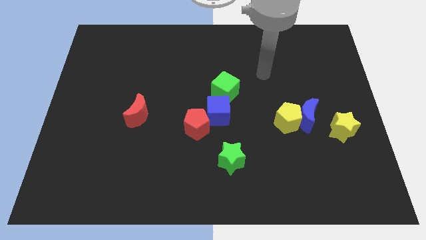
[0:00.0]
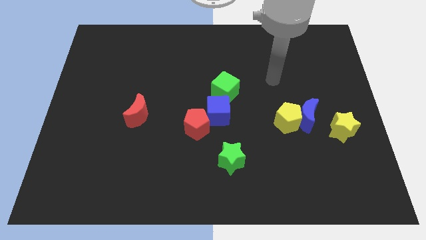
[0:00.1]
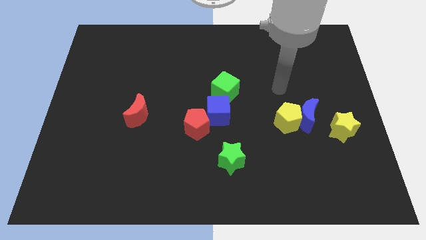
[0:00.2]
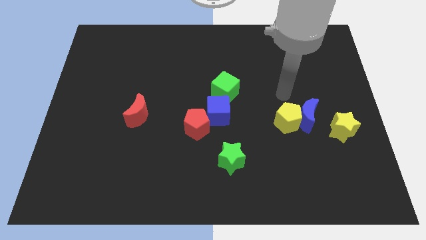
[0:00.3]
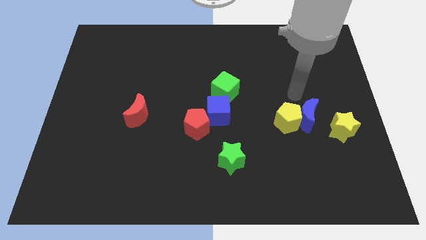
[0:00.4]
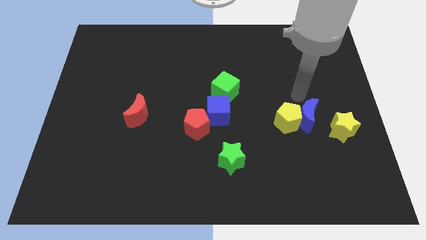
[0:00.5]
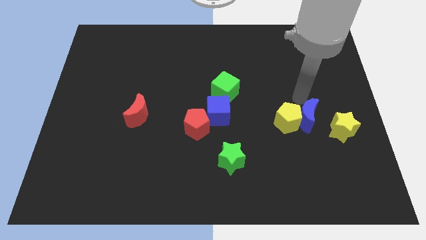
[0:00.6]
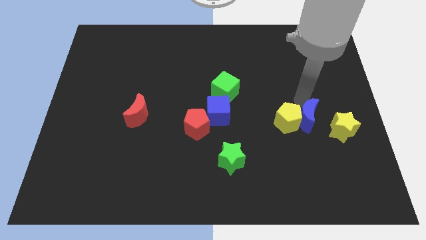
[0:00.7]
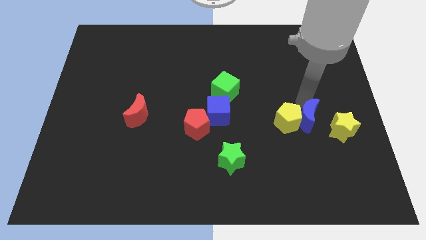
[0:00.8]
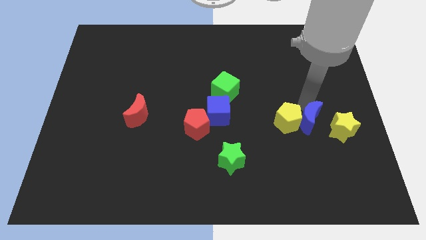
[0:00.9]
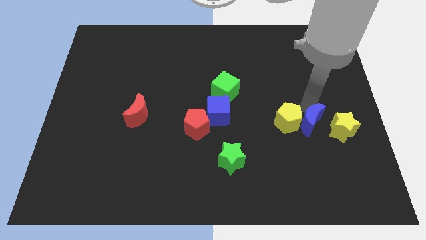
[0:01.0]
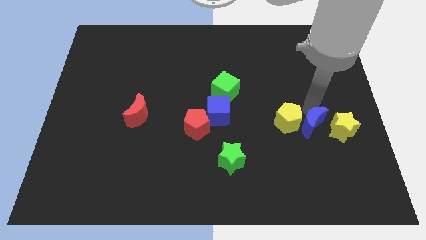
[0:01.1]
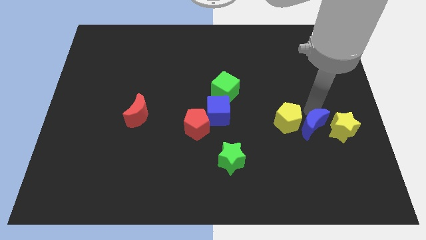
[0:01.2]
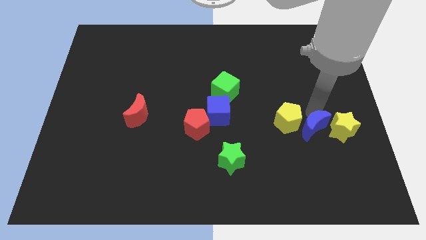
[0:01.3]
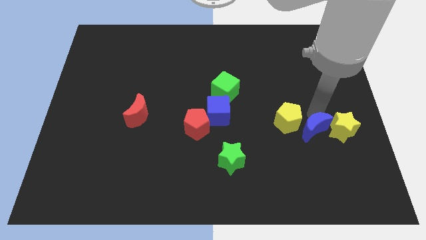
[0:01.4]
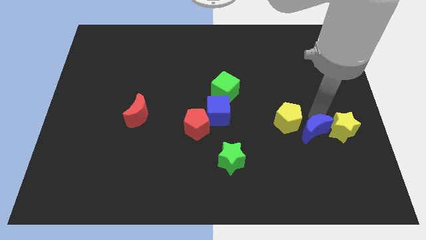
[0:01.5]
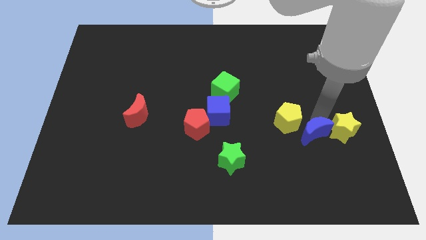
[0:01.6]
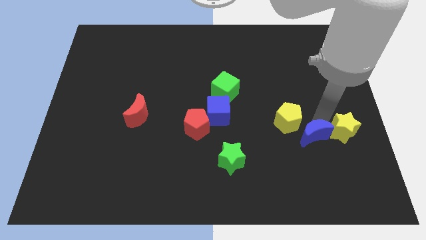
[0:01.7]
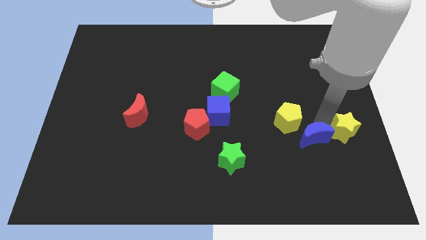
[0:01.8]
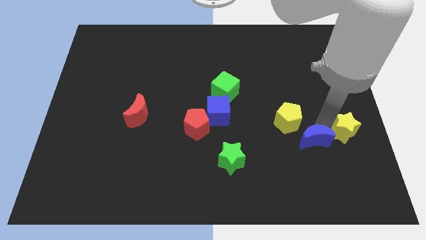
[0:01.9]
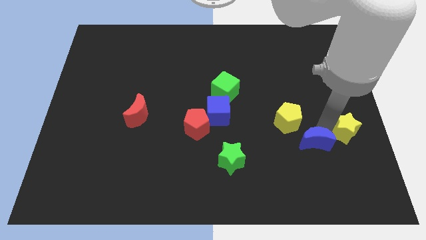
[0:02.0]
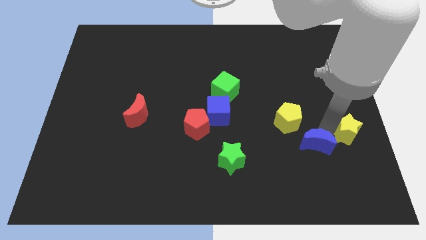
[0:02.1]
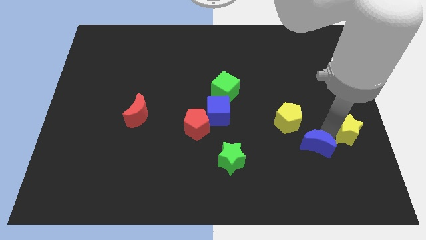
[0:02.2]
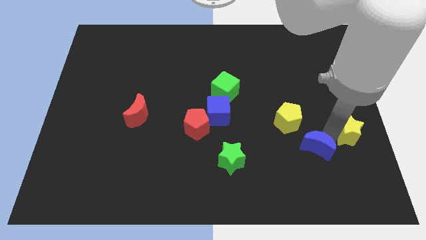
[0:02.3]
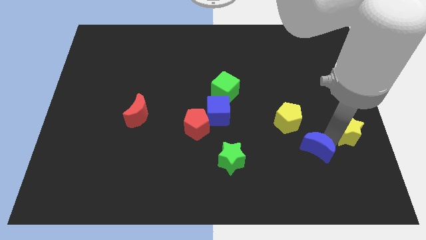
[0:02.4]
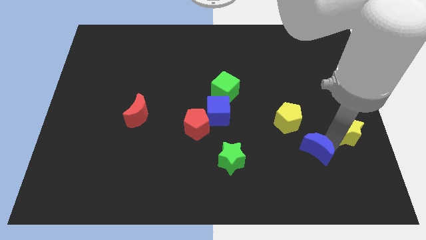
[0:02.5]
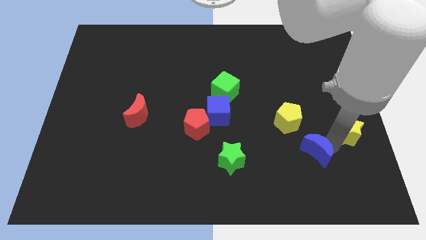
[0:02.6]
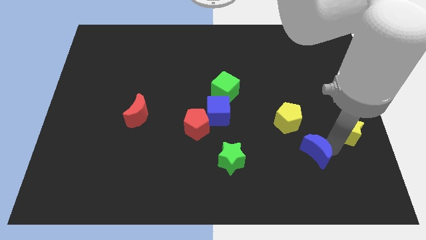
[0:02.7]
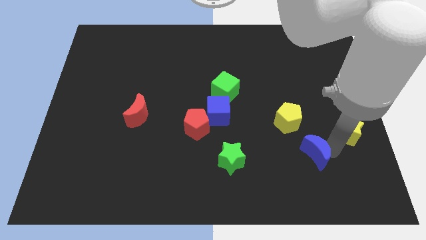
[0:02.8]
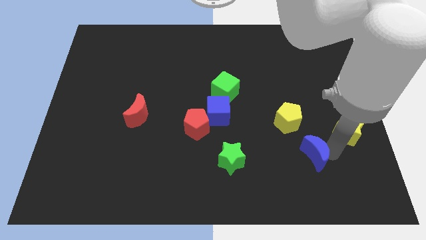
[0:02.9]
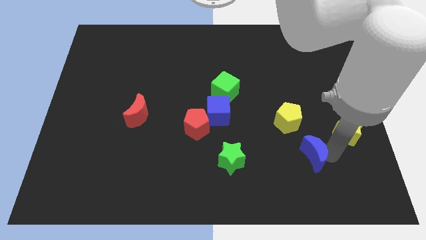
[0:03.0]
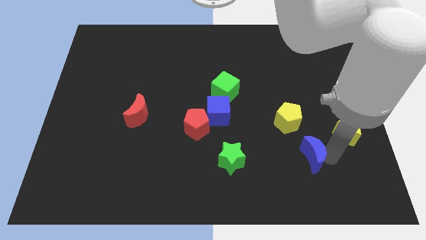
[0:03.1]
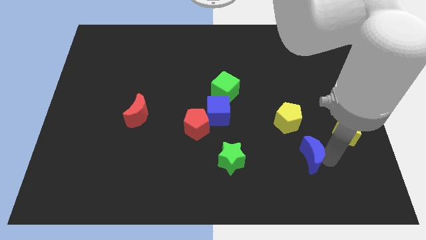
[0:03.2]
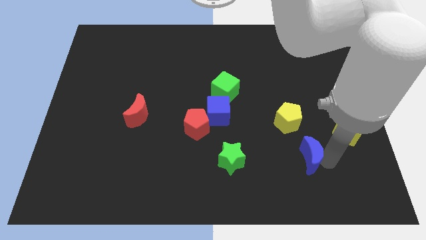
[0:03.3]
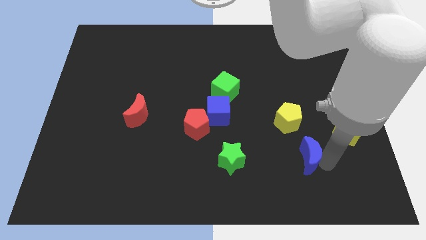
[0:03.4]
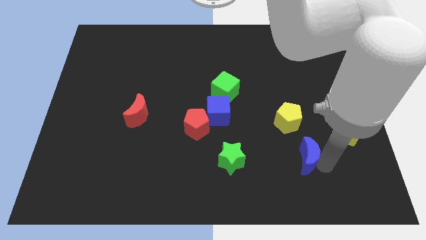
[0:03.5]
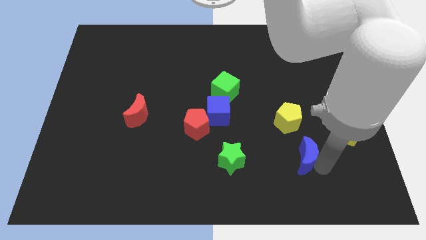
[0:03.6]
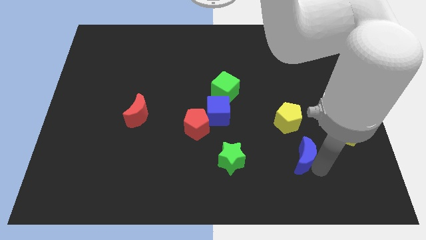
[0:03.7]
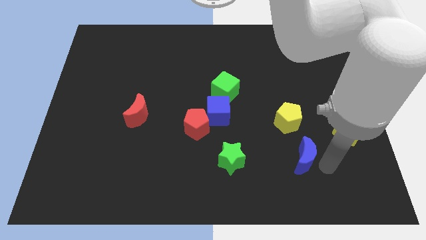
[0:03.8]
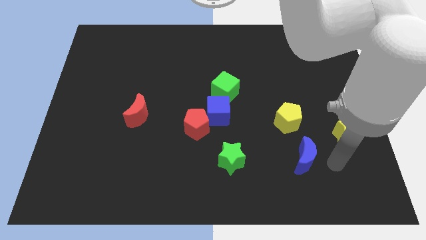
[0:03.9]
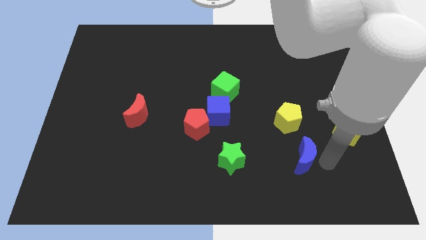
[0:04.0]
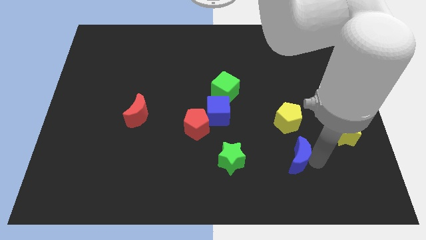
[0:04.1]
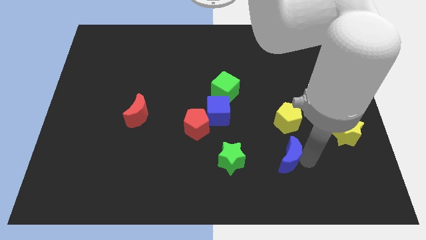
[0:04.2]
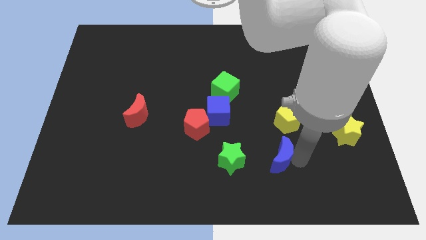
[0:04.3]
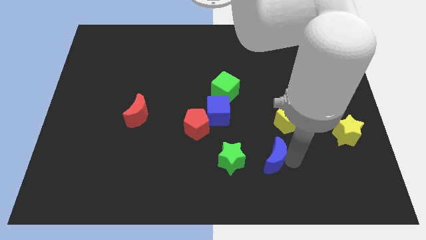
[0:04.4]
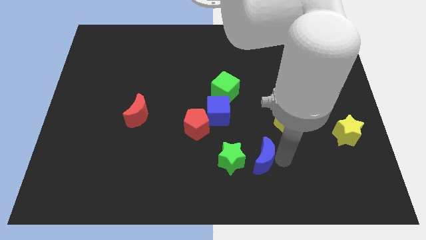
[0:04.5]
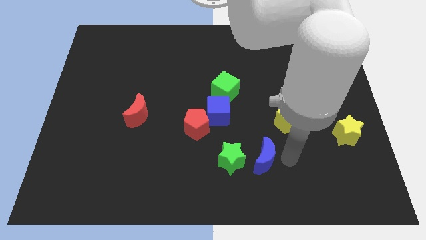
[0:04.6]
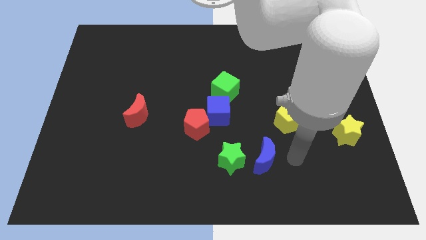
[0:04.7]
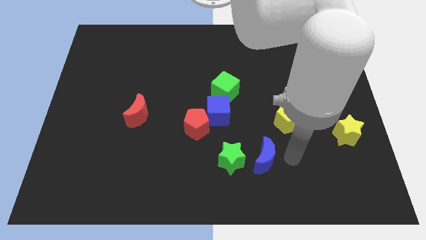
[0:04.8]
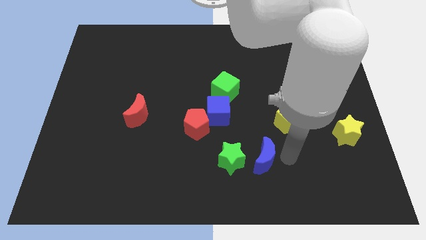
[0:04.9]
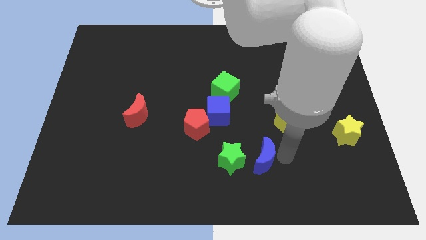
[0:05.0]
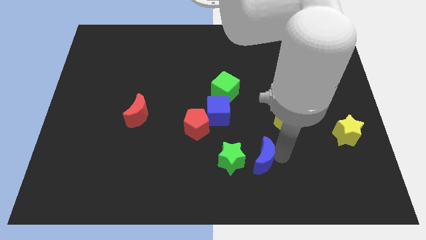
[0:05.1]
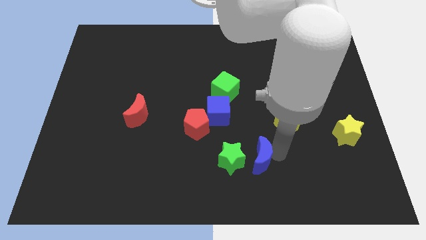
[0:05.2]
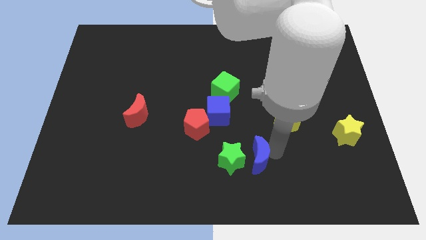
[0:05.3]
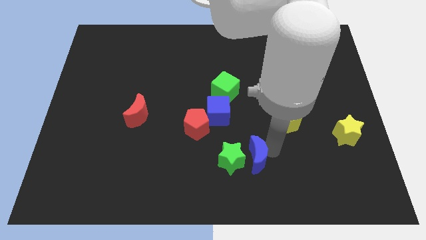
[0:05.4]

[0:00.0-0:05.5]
slide the blue moon towards the green star

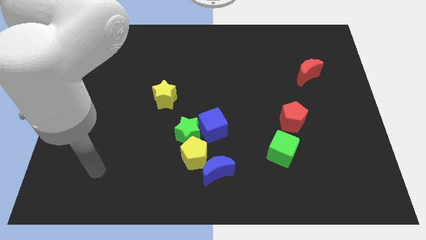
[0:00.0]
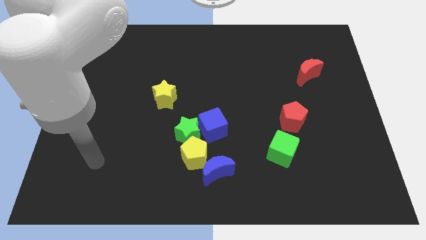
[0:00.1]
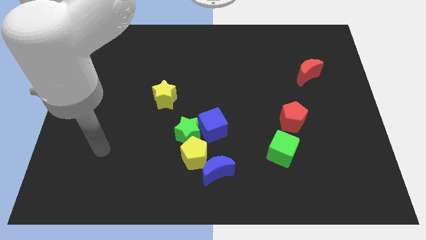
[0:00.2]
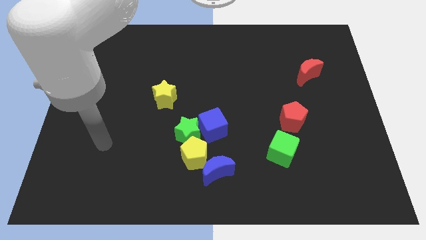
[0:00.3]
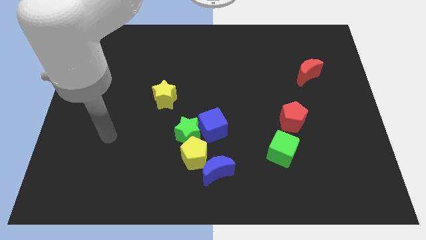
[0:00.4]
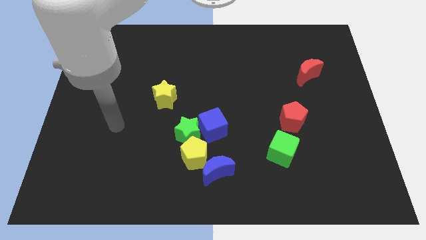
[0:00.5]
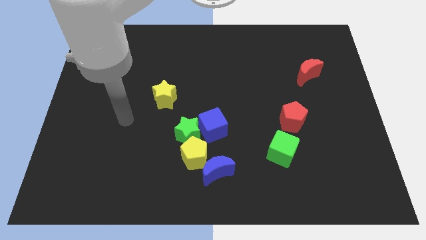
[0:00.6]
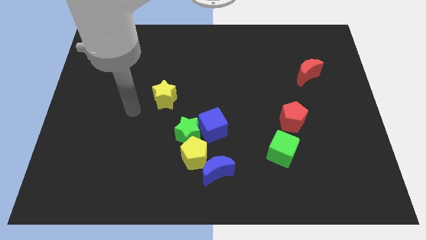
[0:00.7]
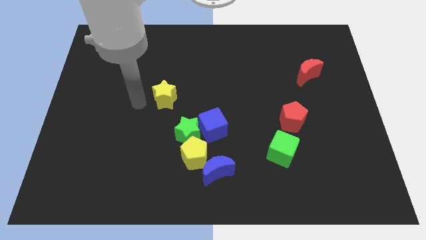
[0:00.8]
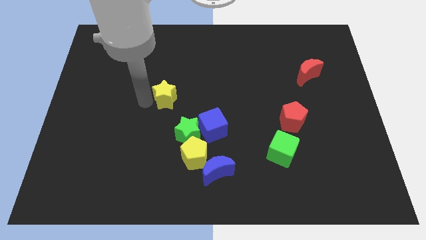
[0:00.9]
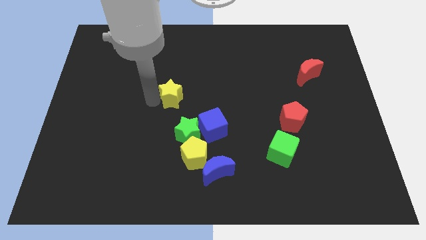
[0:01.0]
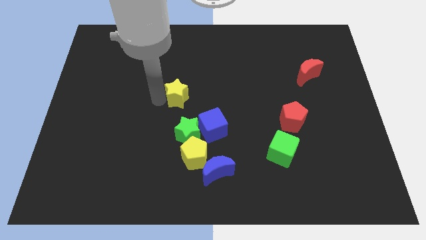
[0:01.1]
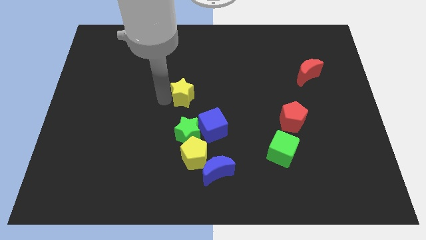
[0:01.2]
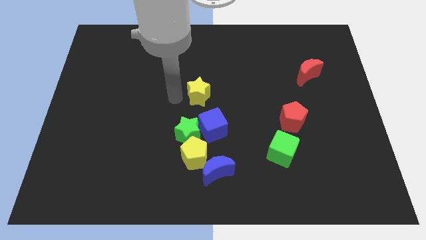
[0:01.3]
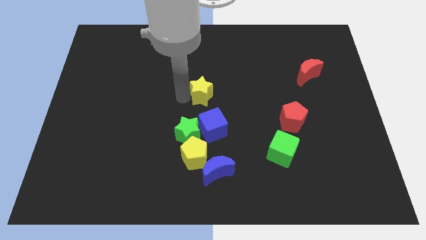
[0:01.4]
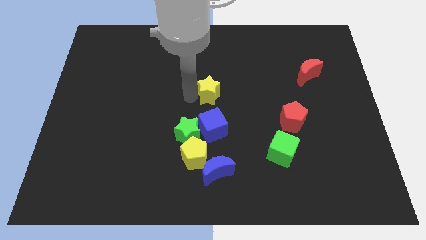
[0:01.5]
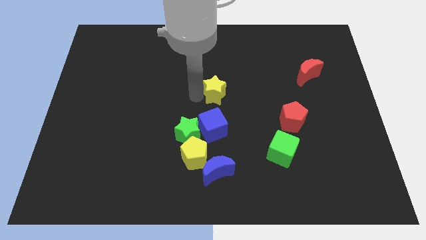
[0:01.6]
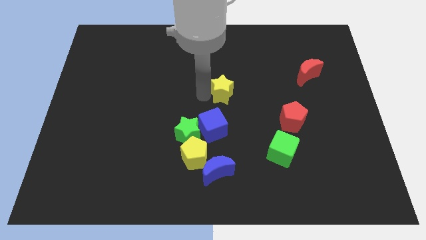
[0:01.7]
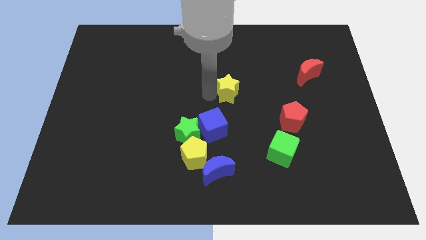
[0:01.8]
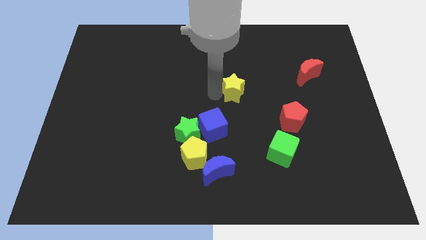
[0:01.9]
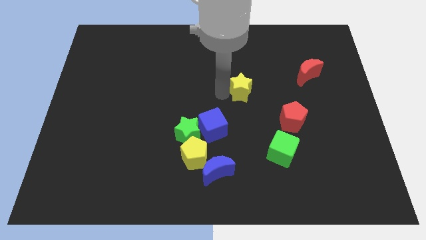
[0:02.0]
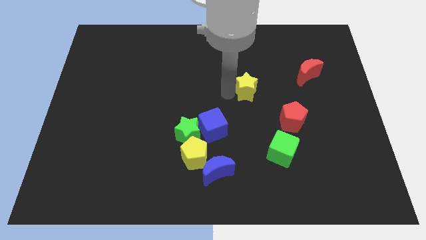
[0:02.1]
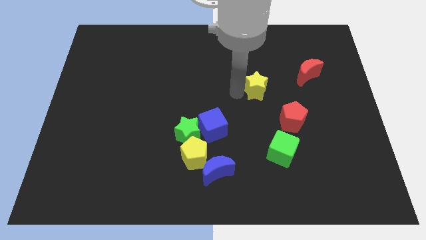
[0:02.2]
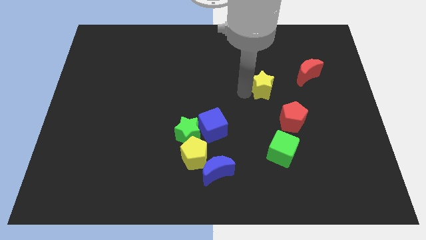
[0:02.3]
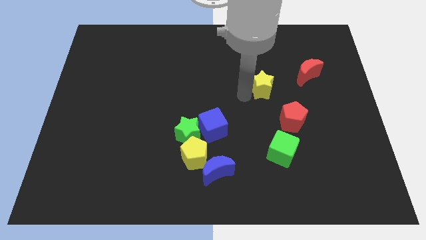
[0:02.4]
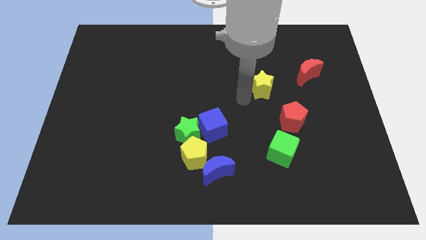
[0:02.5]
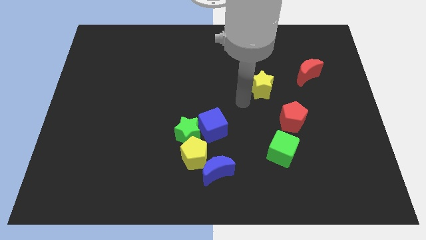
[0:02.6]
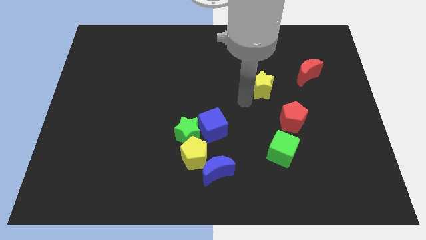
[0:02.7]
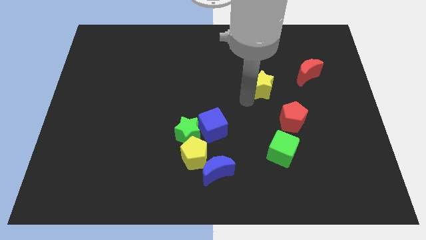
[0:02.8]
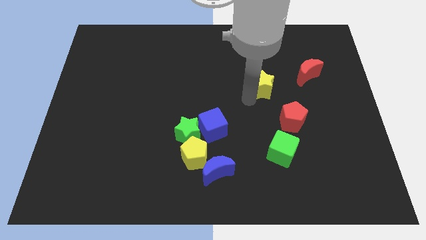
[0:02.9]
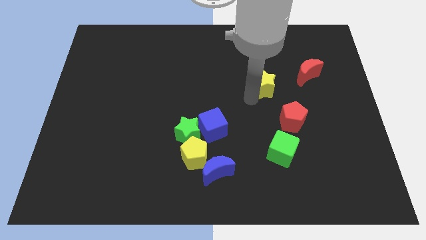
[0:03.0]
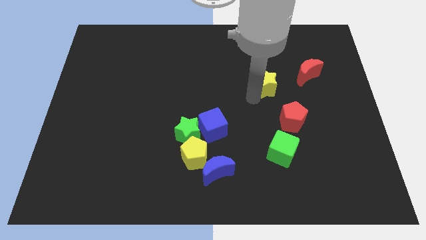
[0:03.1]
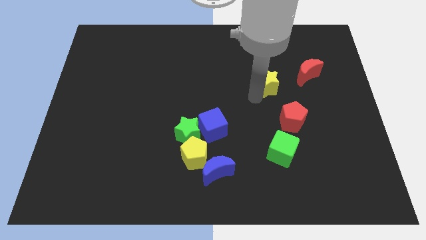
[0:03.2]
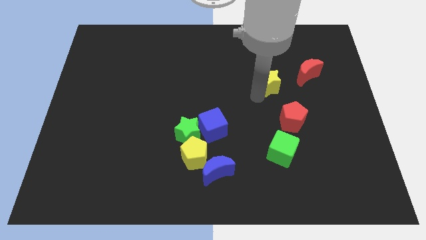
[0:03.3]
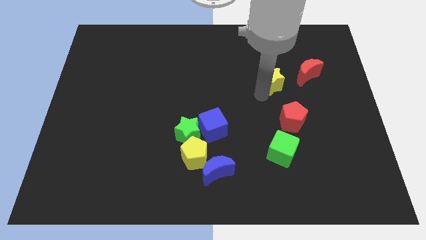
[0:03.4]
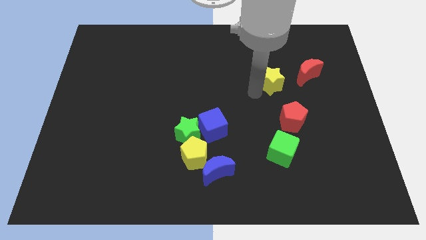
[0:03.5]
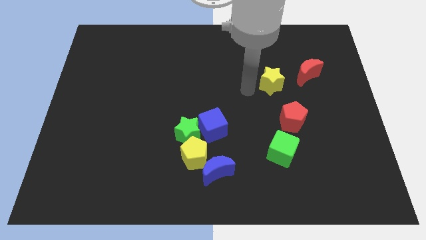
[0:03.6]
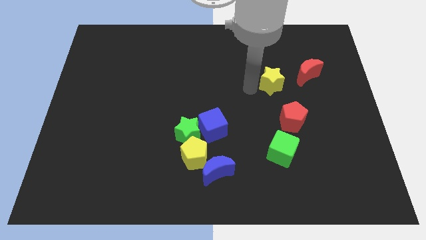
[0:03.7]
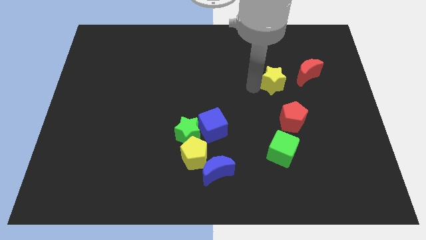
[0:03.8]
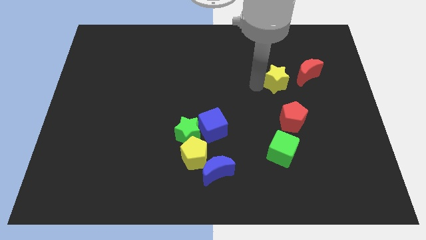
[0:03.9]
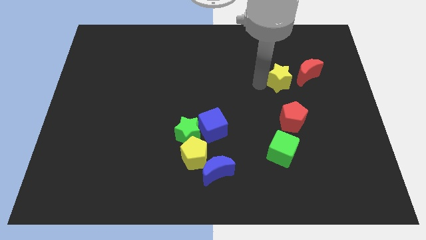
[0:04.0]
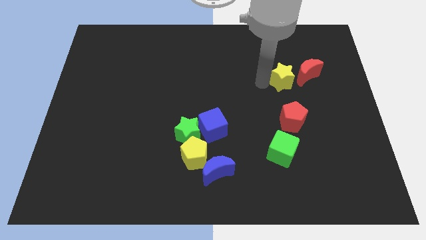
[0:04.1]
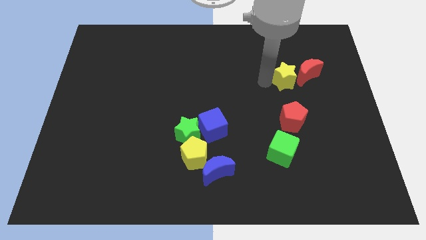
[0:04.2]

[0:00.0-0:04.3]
move the yellow star close to the red moon
